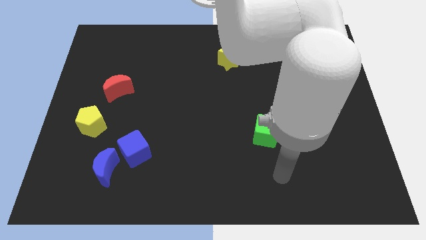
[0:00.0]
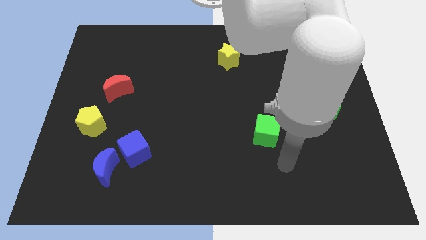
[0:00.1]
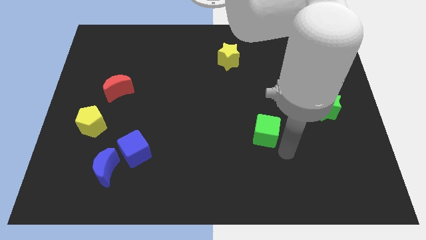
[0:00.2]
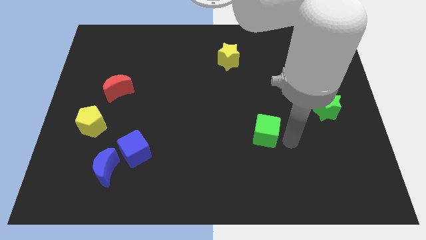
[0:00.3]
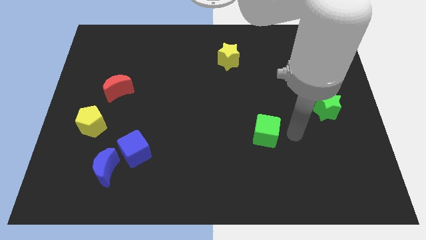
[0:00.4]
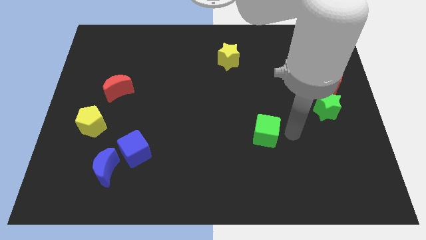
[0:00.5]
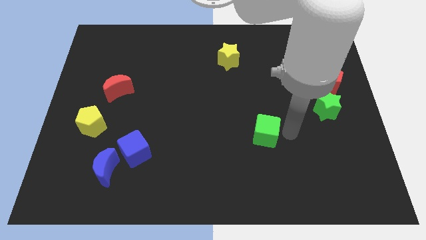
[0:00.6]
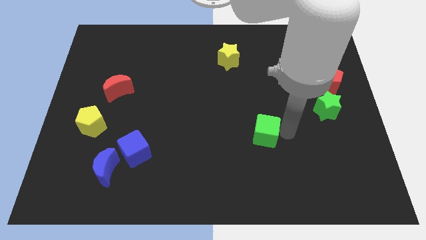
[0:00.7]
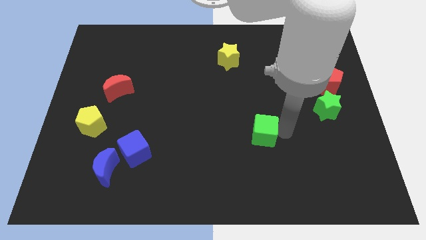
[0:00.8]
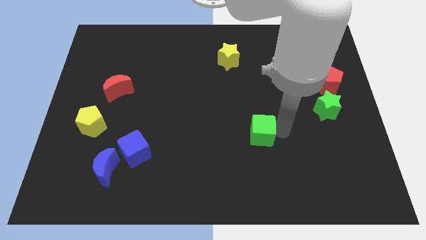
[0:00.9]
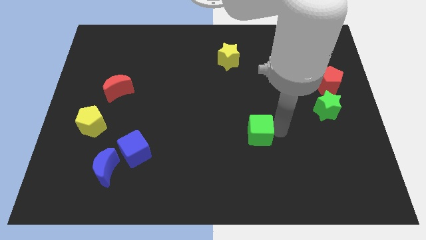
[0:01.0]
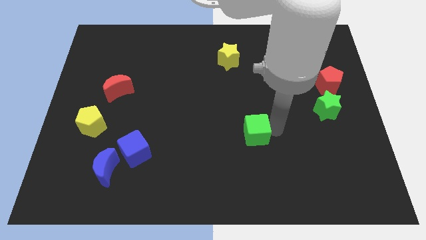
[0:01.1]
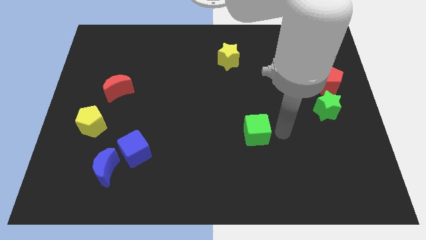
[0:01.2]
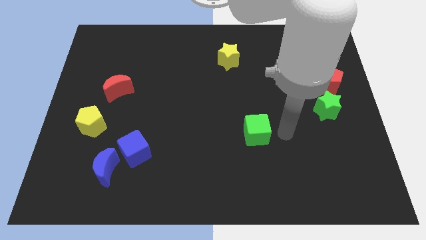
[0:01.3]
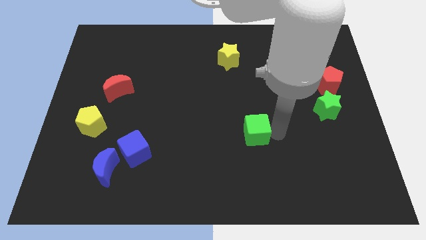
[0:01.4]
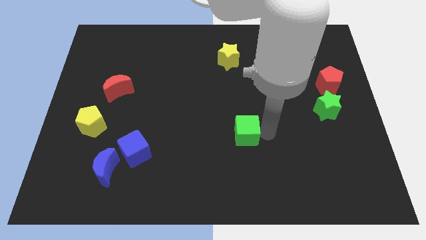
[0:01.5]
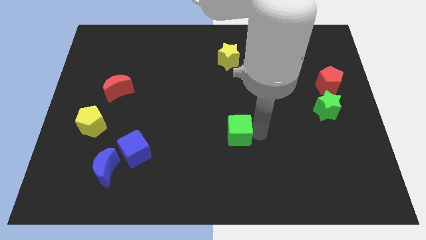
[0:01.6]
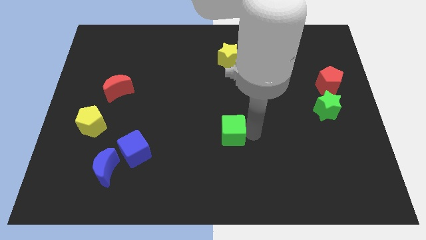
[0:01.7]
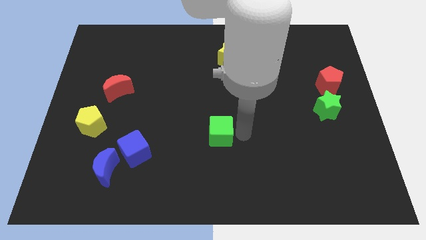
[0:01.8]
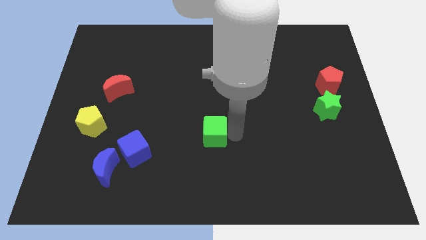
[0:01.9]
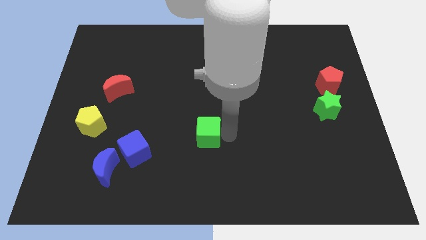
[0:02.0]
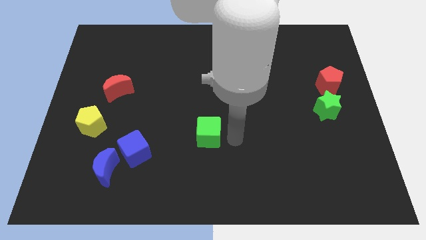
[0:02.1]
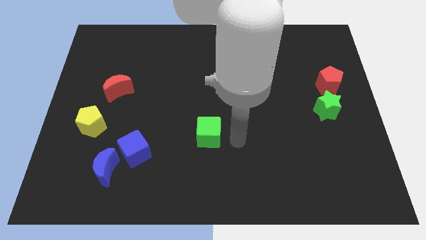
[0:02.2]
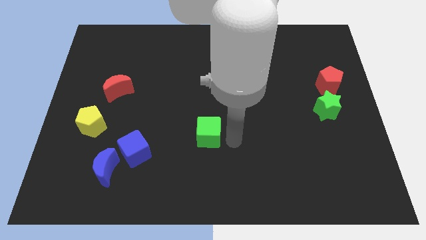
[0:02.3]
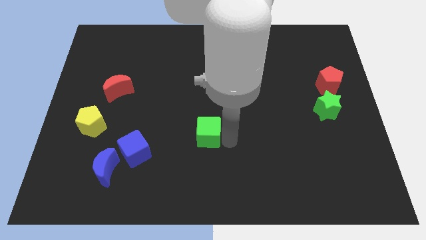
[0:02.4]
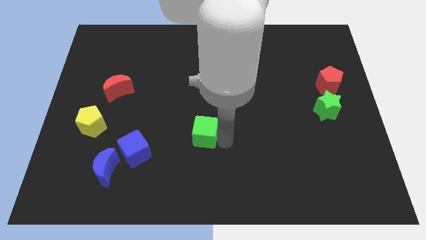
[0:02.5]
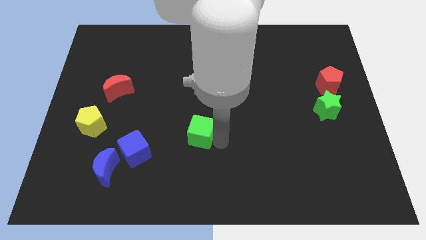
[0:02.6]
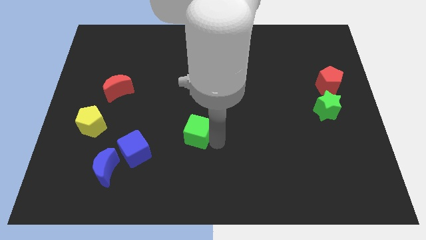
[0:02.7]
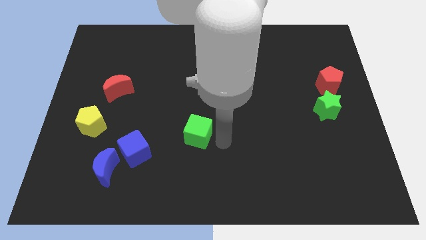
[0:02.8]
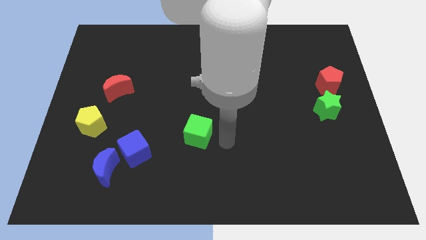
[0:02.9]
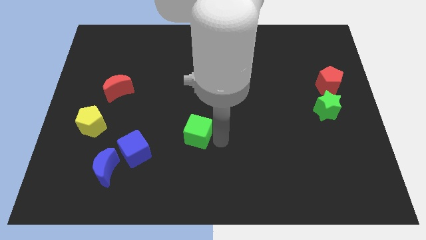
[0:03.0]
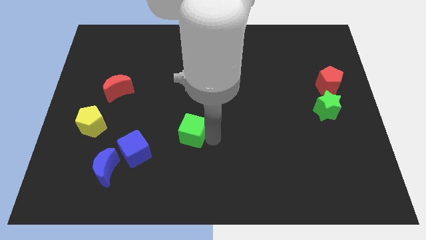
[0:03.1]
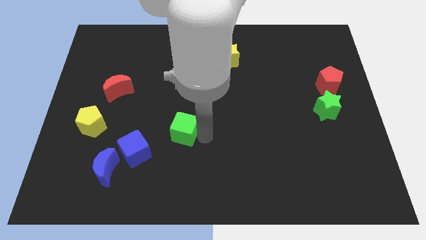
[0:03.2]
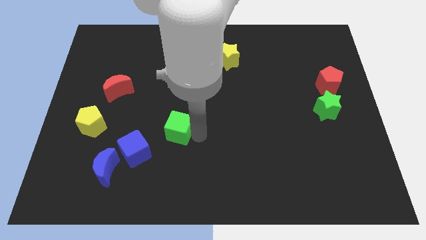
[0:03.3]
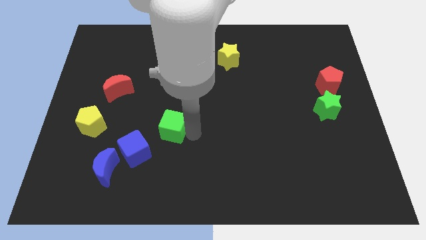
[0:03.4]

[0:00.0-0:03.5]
move the green cube to the left

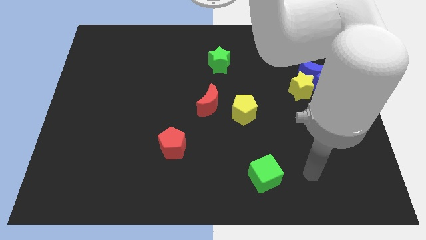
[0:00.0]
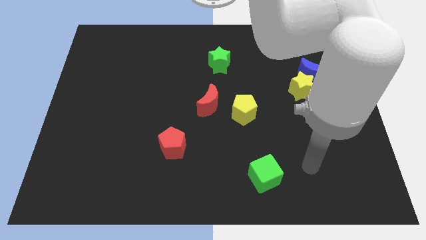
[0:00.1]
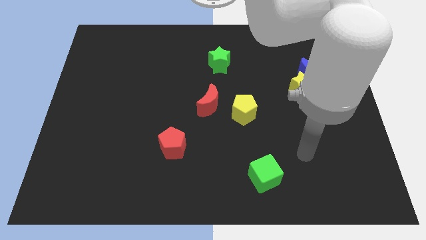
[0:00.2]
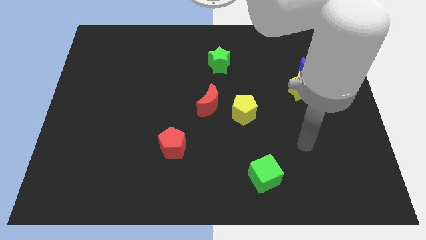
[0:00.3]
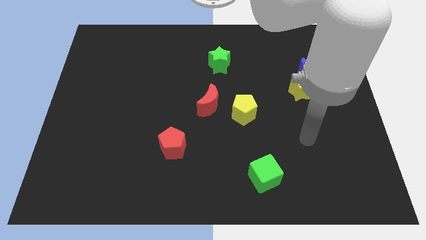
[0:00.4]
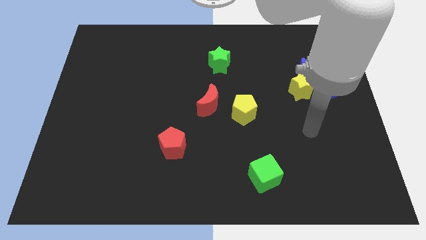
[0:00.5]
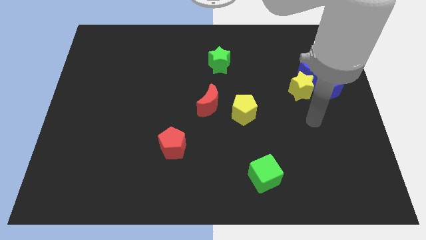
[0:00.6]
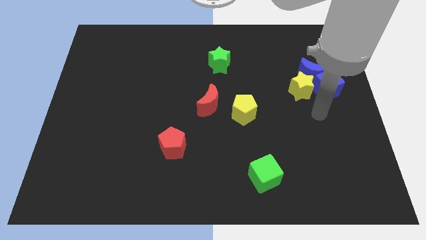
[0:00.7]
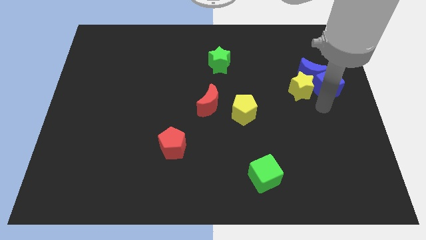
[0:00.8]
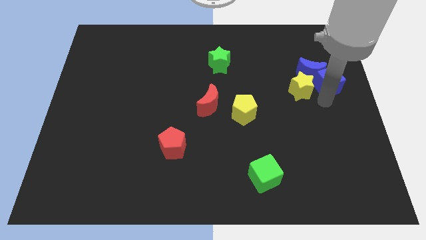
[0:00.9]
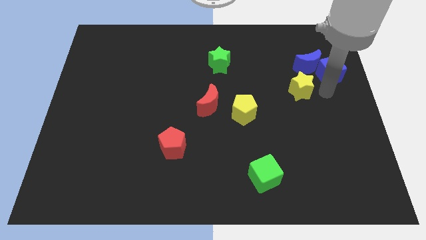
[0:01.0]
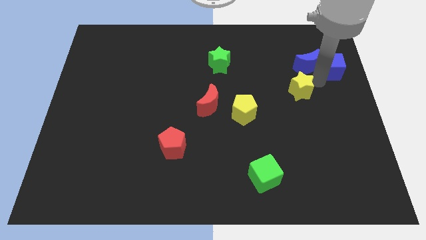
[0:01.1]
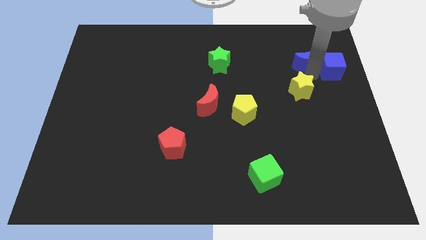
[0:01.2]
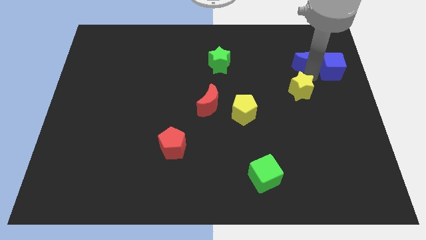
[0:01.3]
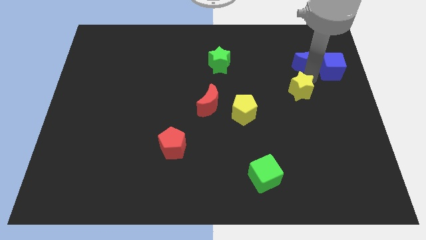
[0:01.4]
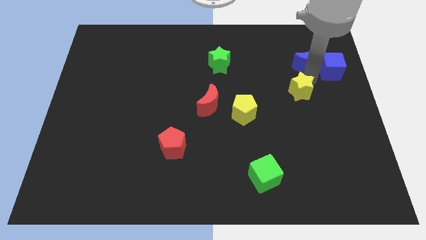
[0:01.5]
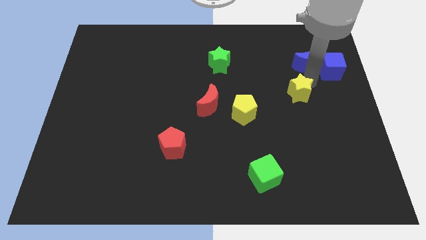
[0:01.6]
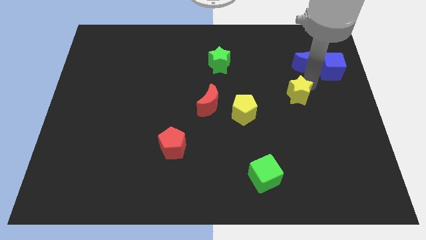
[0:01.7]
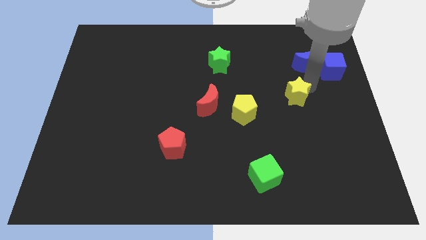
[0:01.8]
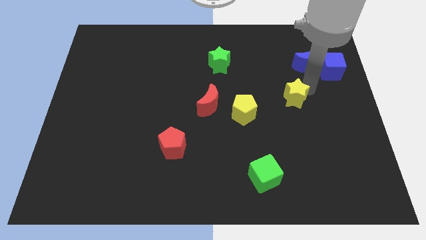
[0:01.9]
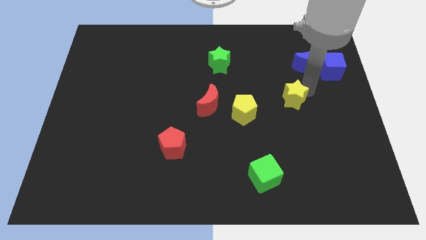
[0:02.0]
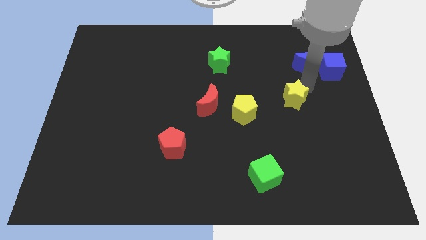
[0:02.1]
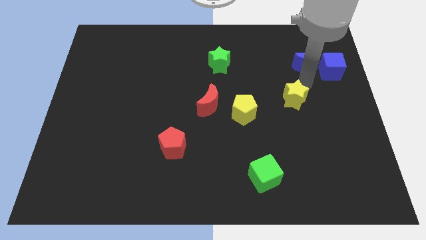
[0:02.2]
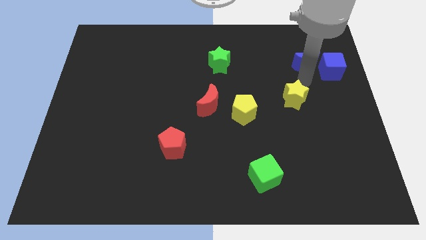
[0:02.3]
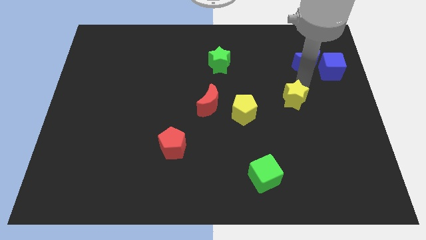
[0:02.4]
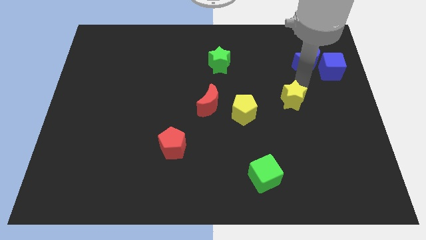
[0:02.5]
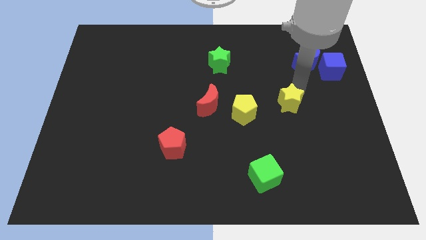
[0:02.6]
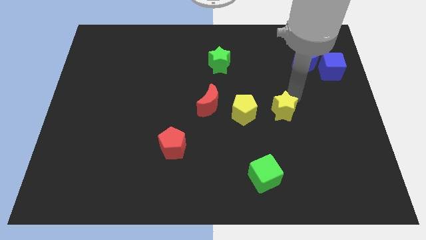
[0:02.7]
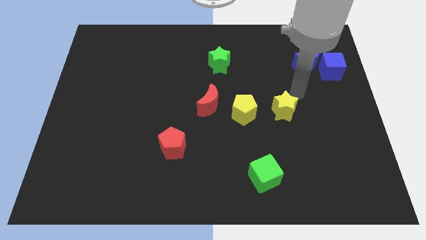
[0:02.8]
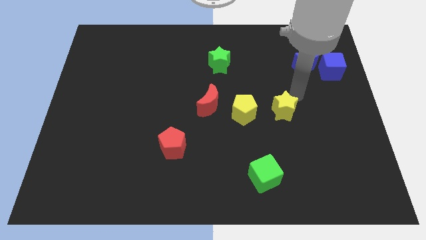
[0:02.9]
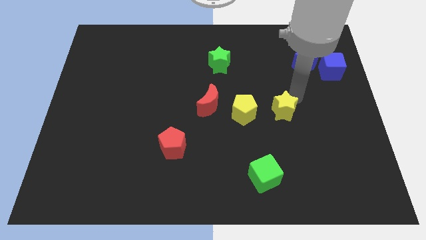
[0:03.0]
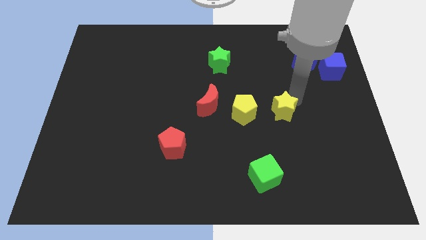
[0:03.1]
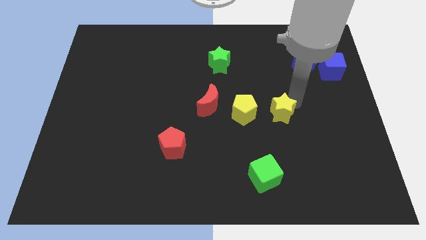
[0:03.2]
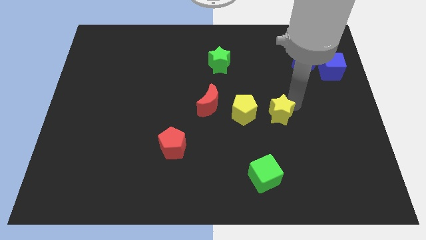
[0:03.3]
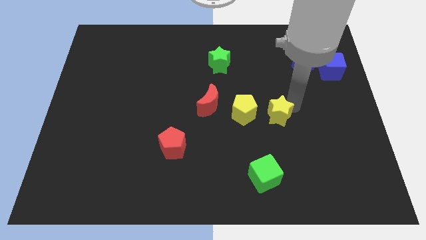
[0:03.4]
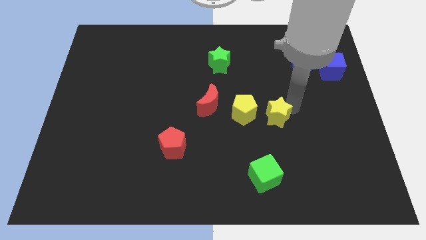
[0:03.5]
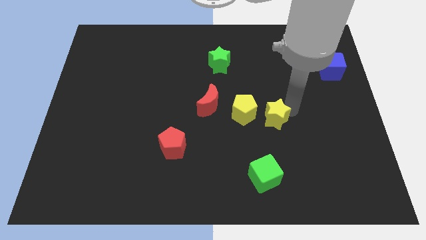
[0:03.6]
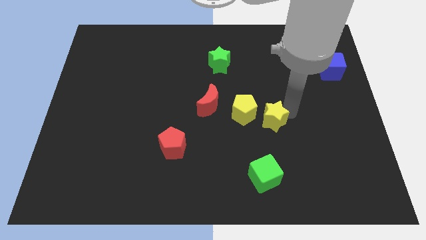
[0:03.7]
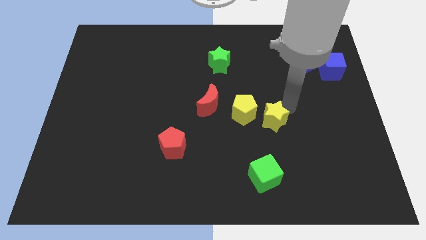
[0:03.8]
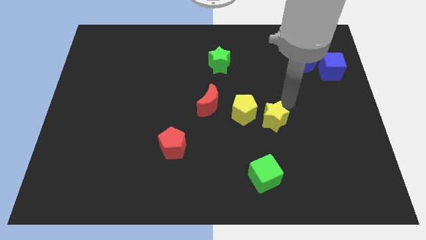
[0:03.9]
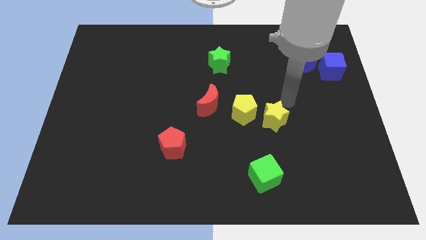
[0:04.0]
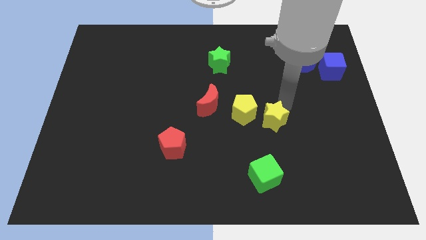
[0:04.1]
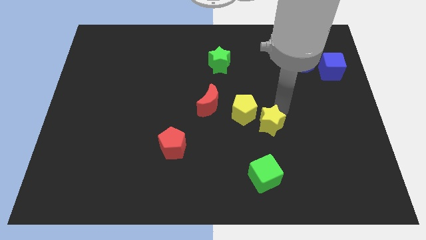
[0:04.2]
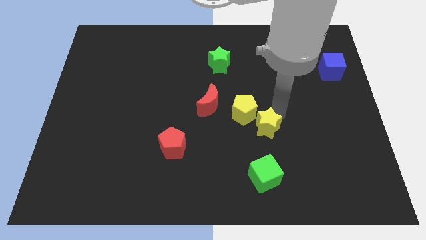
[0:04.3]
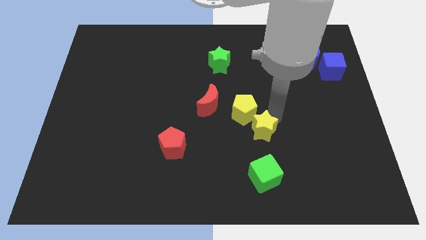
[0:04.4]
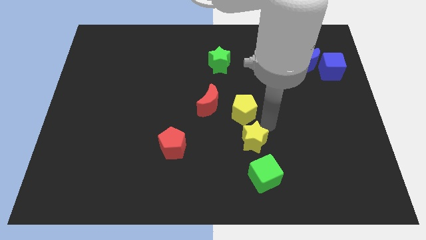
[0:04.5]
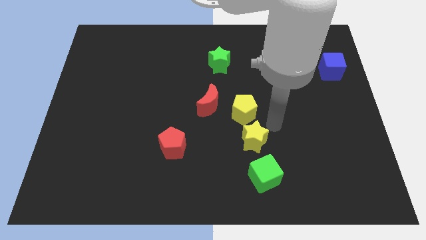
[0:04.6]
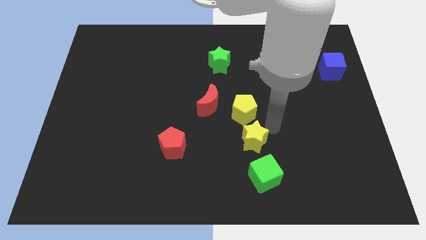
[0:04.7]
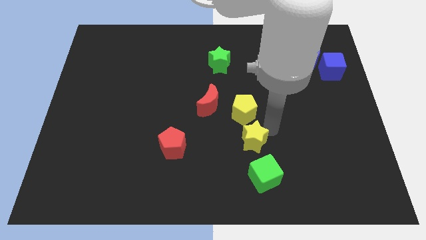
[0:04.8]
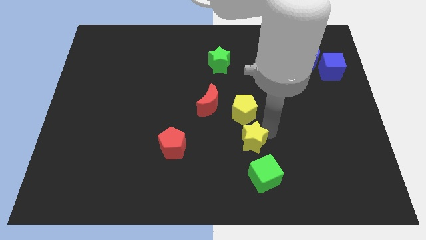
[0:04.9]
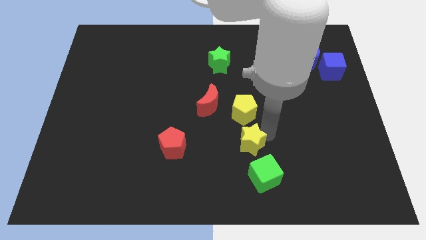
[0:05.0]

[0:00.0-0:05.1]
move the yellow star down and to the left diagonally
